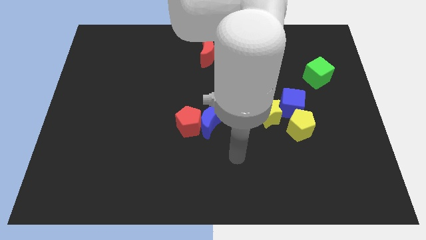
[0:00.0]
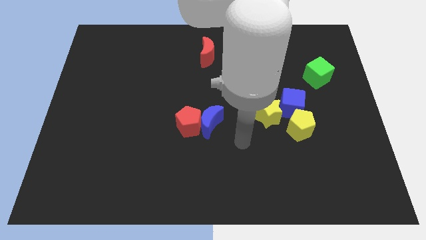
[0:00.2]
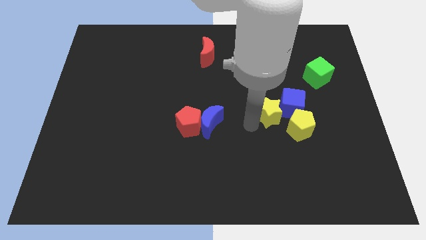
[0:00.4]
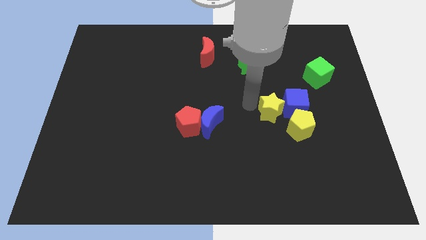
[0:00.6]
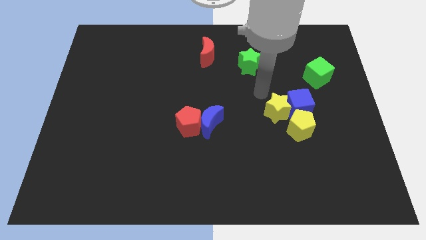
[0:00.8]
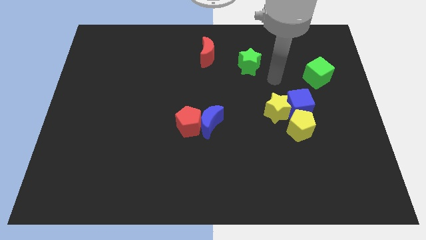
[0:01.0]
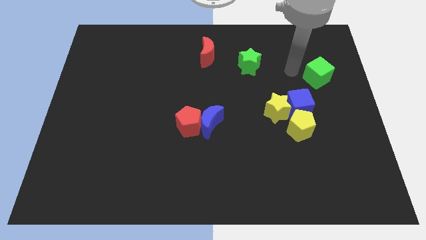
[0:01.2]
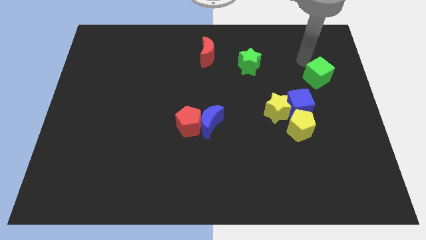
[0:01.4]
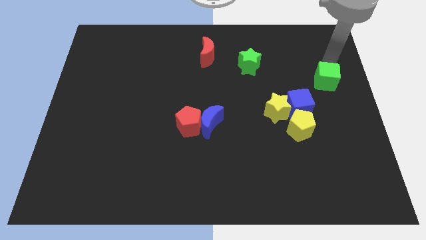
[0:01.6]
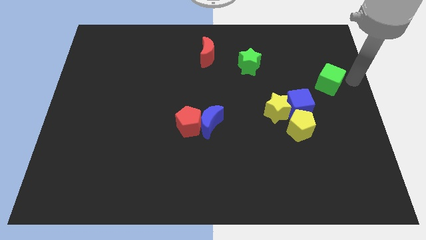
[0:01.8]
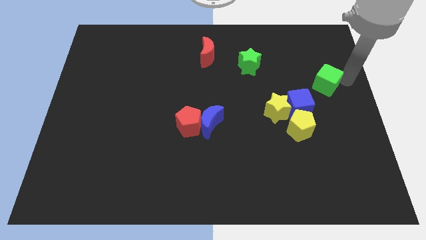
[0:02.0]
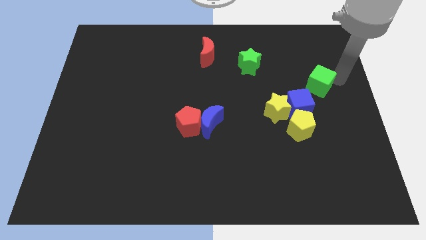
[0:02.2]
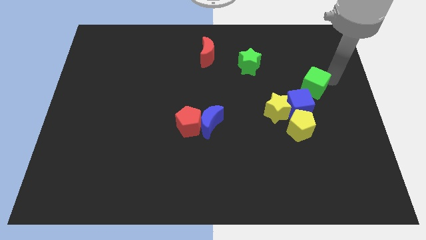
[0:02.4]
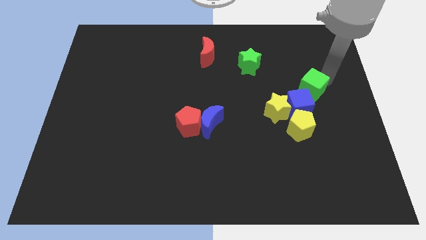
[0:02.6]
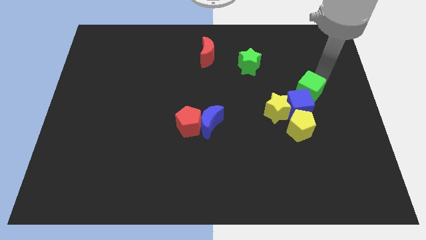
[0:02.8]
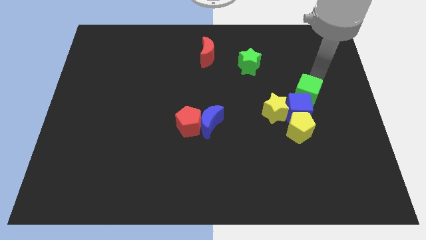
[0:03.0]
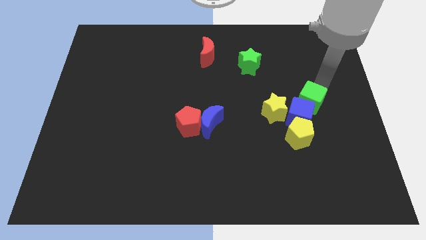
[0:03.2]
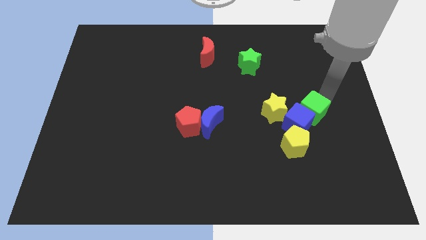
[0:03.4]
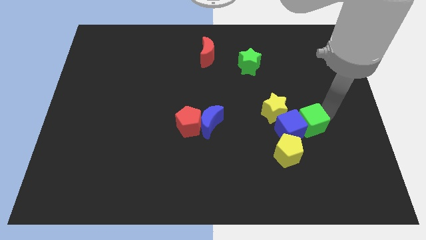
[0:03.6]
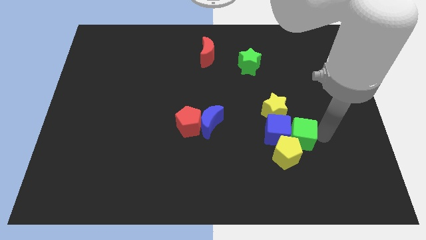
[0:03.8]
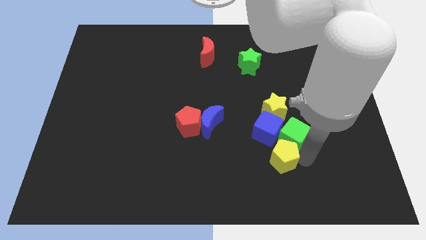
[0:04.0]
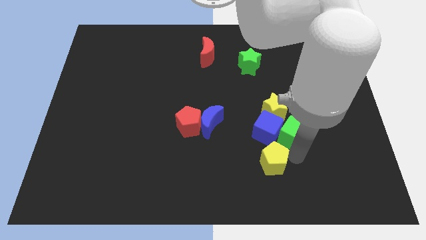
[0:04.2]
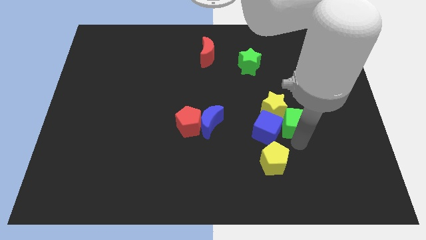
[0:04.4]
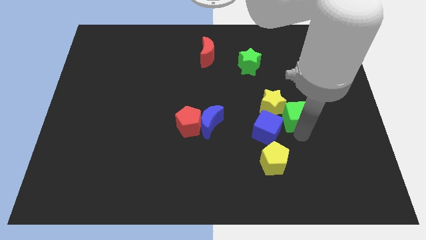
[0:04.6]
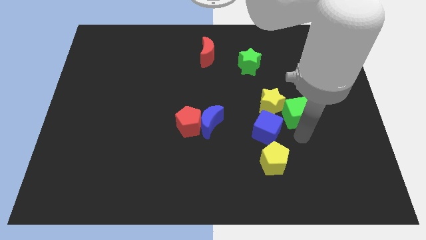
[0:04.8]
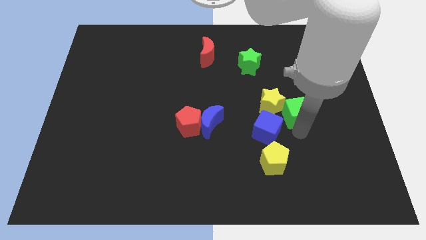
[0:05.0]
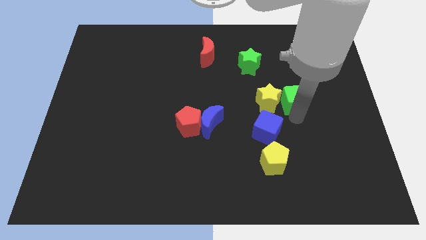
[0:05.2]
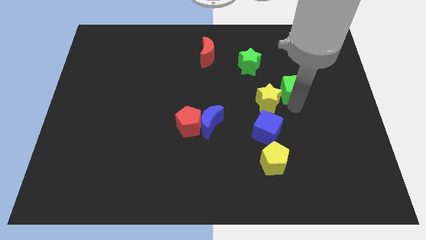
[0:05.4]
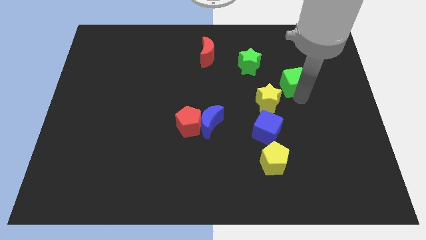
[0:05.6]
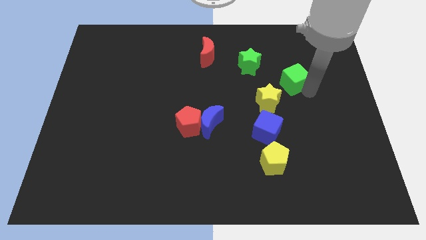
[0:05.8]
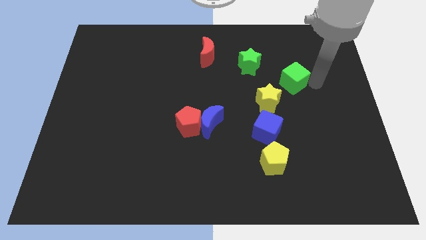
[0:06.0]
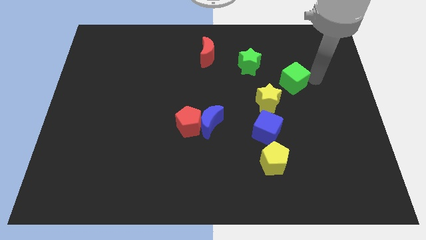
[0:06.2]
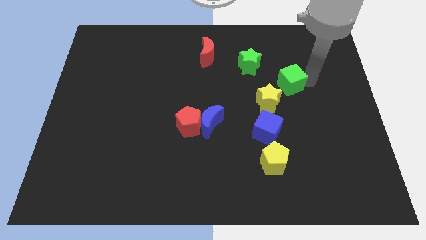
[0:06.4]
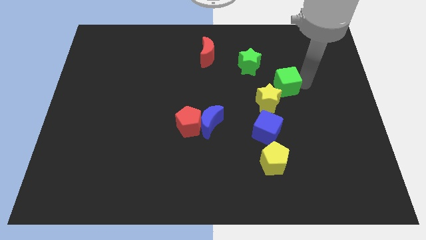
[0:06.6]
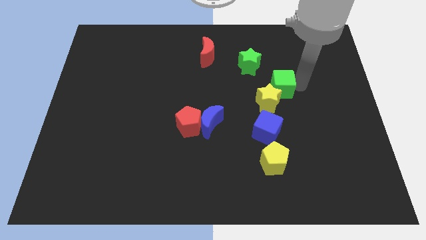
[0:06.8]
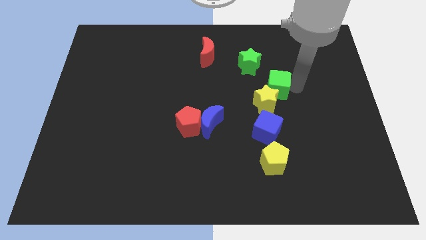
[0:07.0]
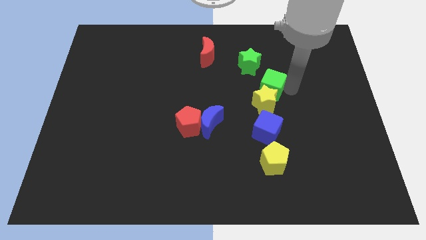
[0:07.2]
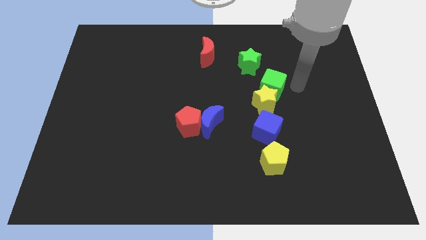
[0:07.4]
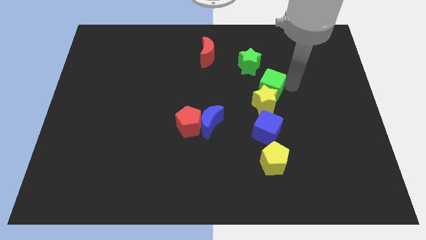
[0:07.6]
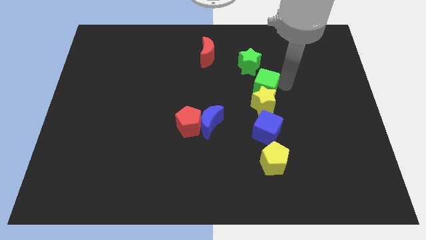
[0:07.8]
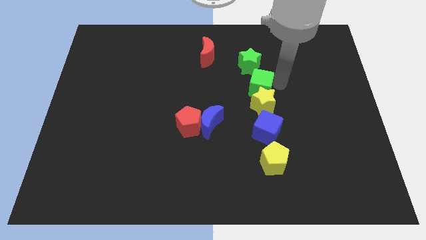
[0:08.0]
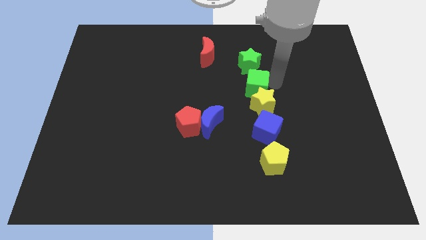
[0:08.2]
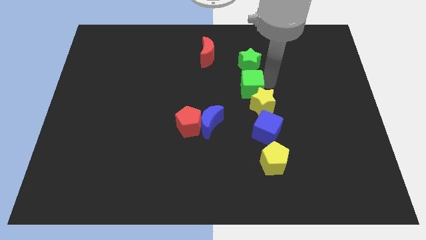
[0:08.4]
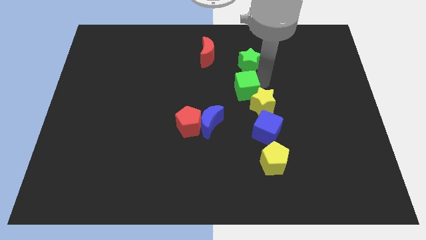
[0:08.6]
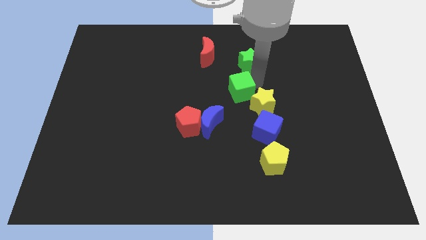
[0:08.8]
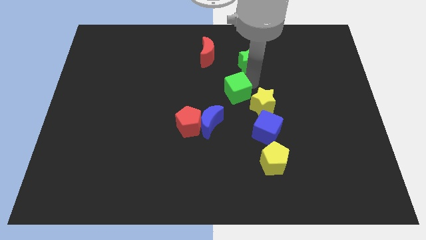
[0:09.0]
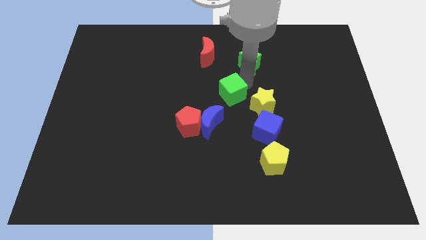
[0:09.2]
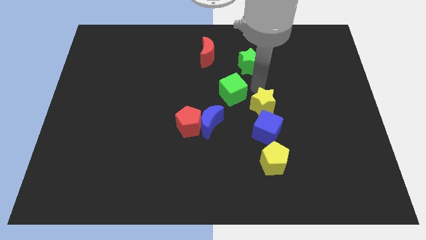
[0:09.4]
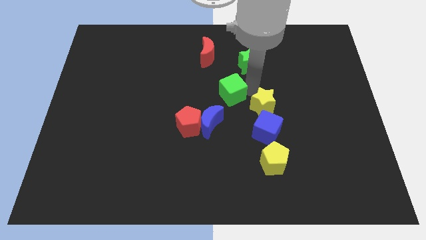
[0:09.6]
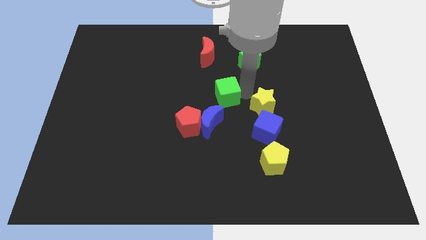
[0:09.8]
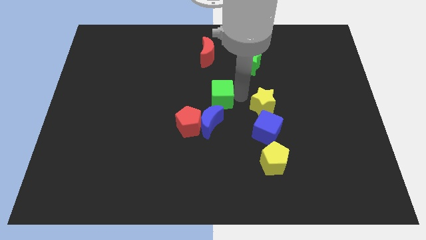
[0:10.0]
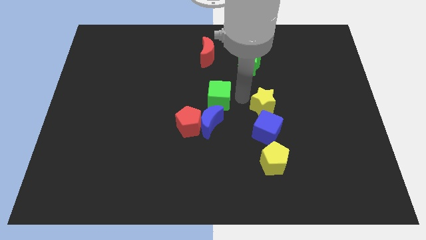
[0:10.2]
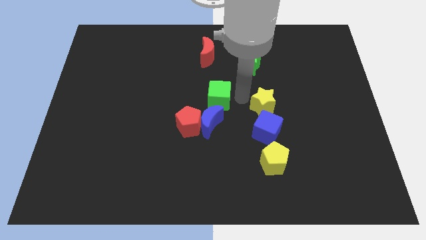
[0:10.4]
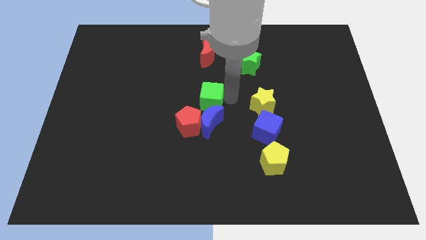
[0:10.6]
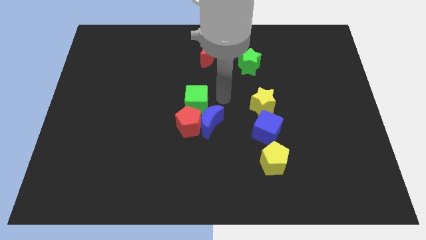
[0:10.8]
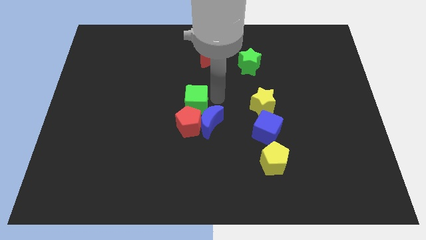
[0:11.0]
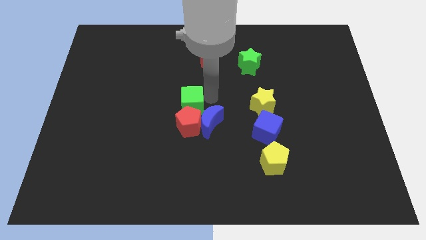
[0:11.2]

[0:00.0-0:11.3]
move the green cube to the top left side of the red pentagon

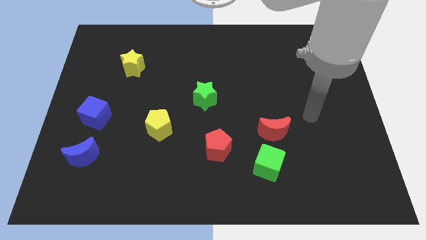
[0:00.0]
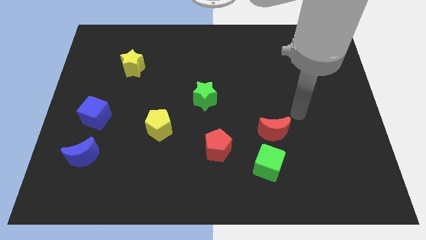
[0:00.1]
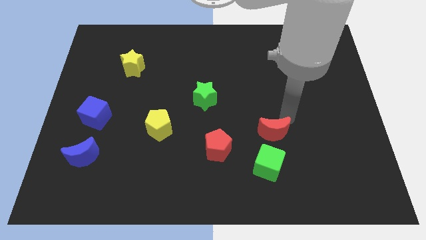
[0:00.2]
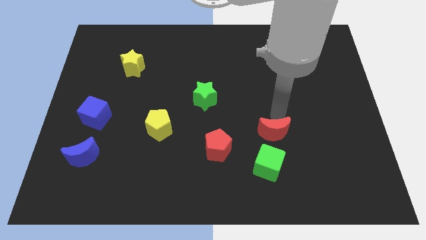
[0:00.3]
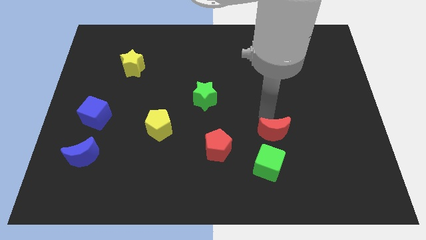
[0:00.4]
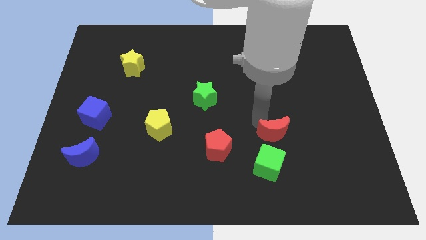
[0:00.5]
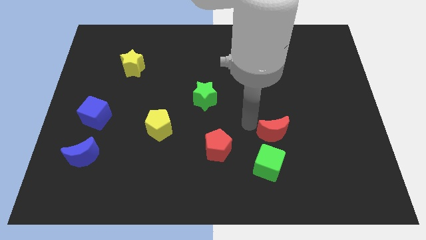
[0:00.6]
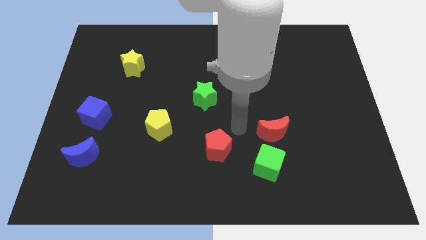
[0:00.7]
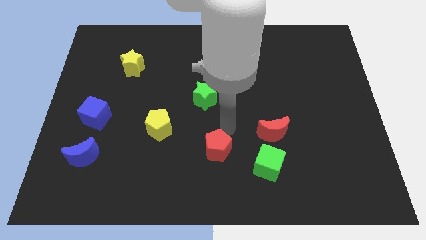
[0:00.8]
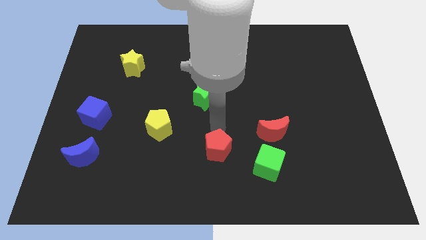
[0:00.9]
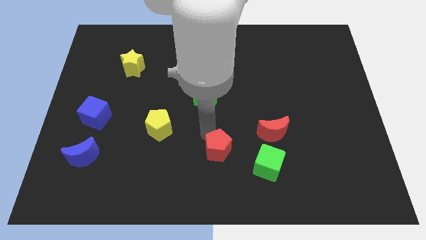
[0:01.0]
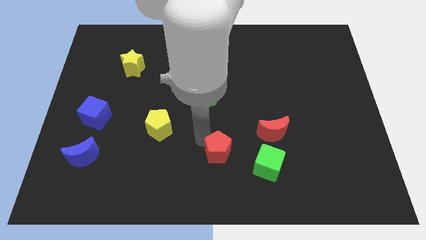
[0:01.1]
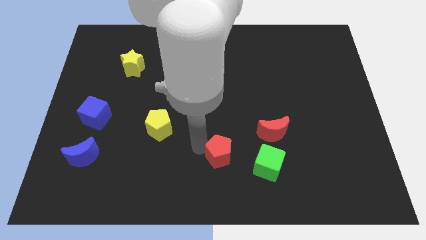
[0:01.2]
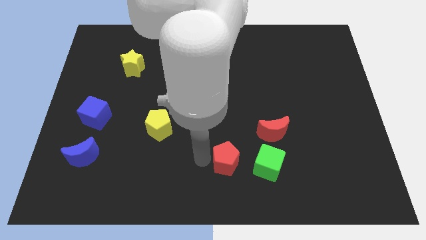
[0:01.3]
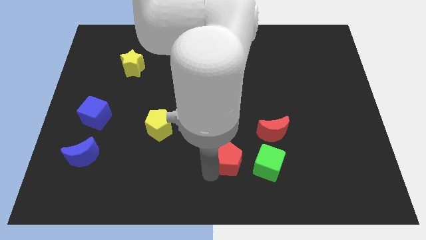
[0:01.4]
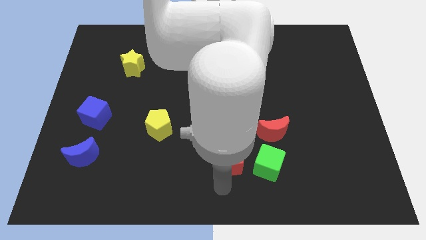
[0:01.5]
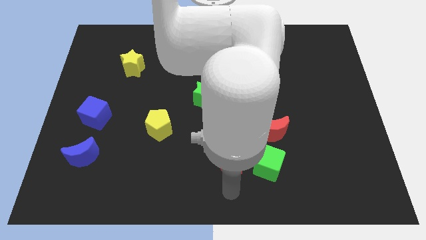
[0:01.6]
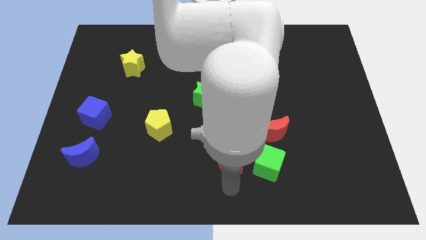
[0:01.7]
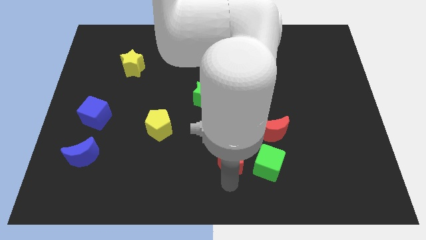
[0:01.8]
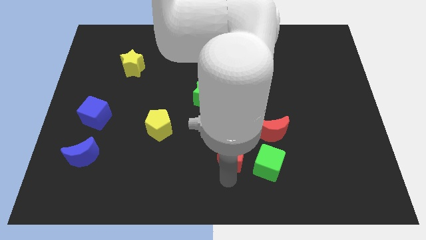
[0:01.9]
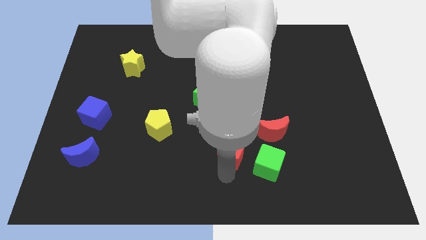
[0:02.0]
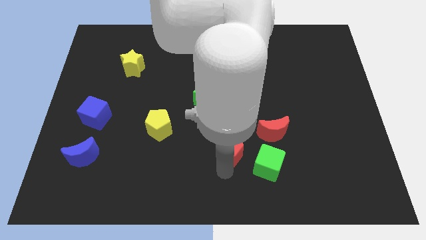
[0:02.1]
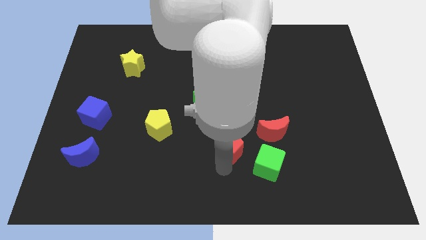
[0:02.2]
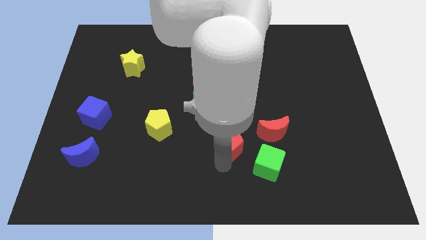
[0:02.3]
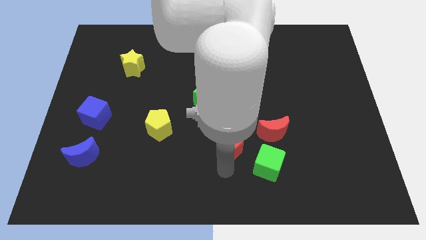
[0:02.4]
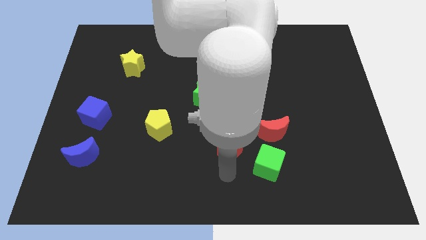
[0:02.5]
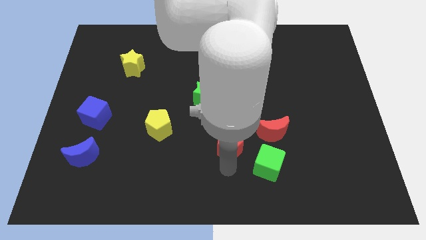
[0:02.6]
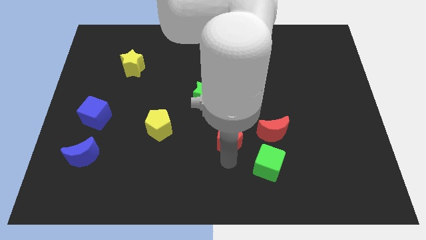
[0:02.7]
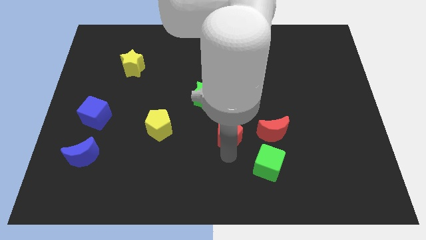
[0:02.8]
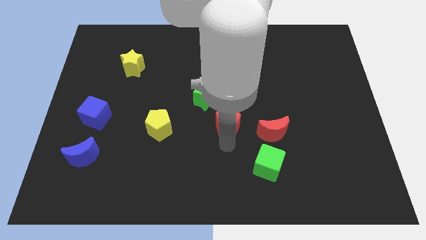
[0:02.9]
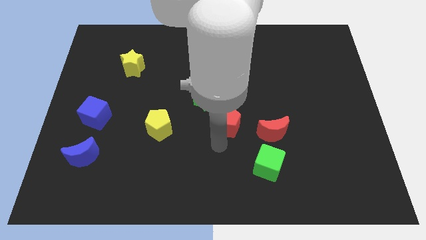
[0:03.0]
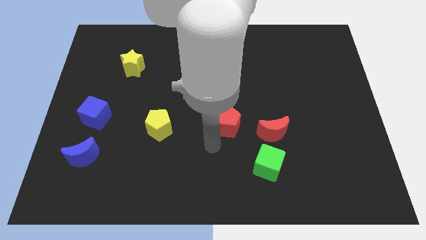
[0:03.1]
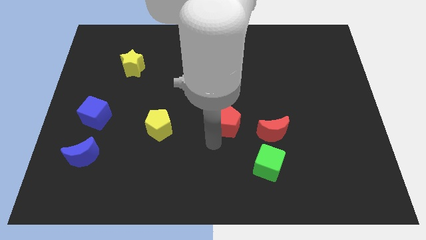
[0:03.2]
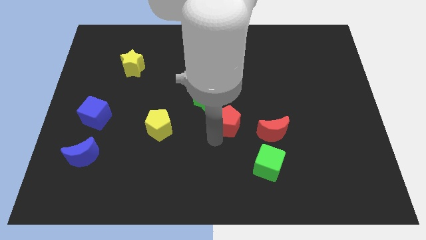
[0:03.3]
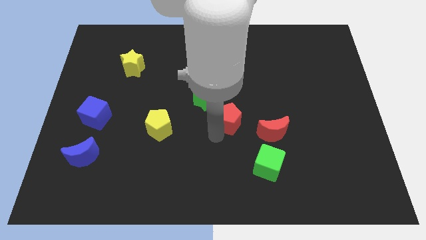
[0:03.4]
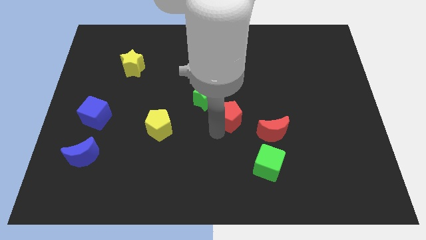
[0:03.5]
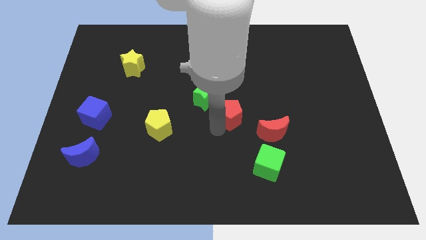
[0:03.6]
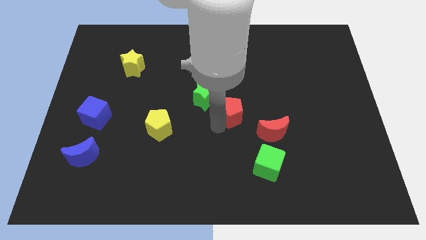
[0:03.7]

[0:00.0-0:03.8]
put the red pentagon right of the green star
